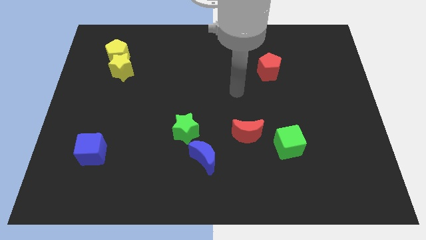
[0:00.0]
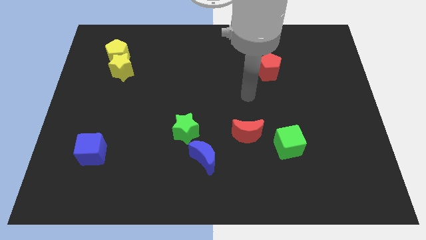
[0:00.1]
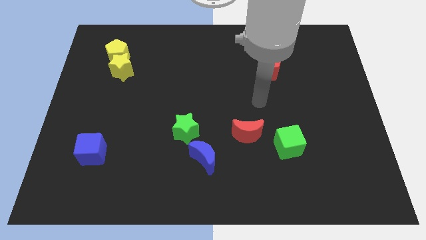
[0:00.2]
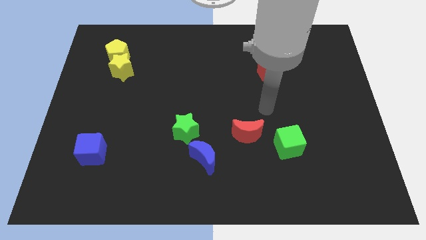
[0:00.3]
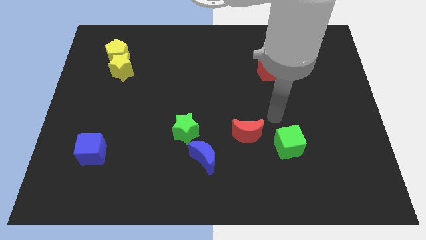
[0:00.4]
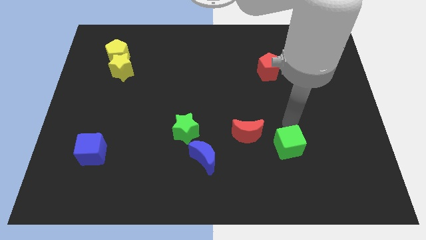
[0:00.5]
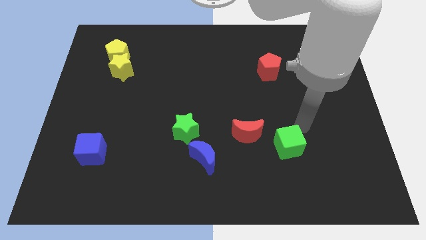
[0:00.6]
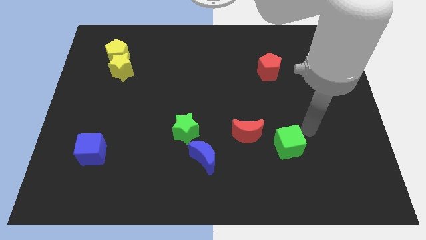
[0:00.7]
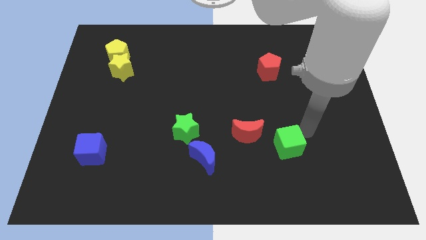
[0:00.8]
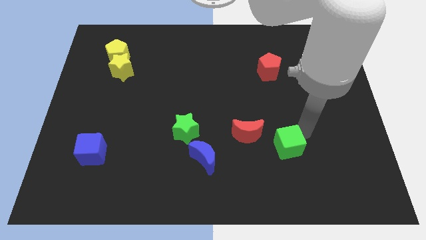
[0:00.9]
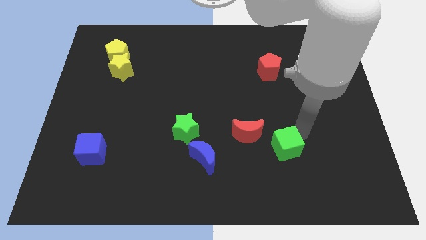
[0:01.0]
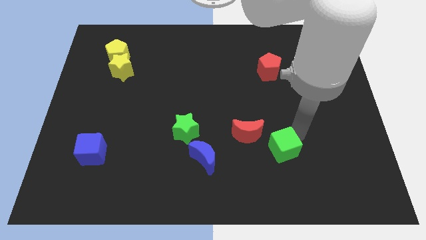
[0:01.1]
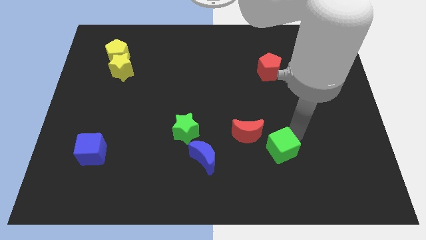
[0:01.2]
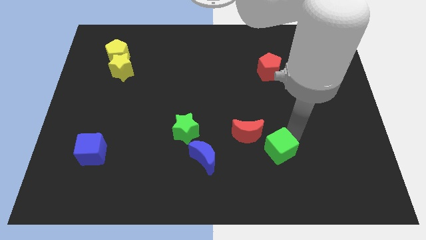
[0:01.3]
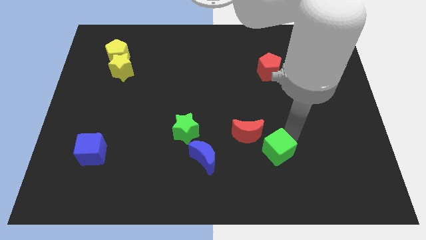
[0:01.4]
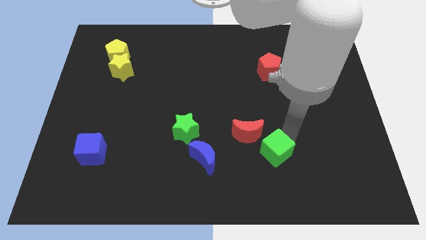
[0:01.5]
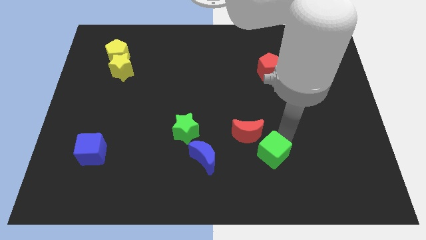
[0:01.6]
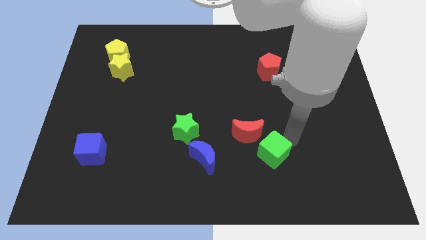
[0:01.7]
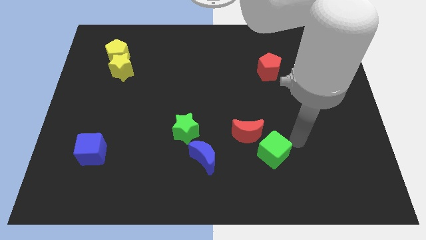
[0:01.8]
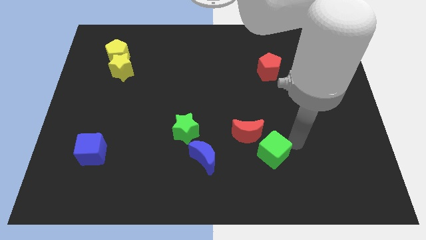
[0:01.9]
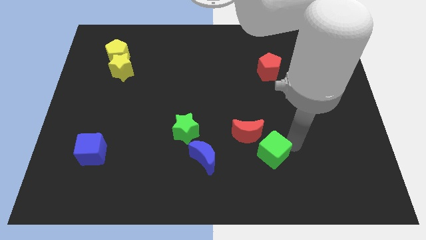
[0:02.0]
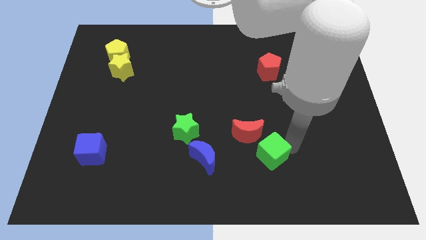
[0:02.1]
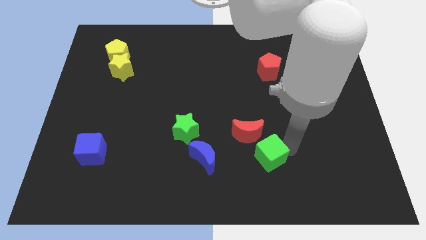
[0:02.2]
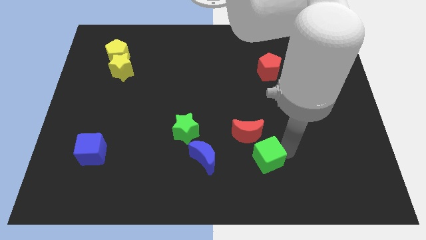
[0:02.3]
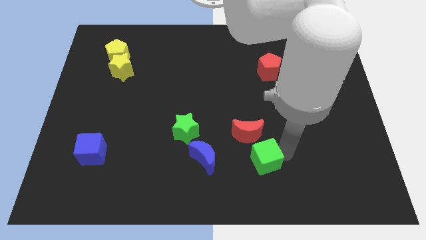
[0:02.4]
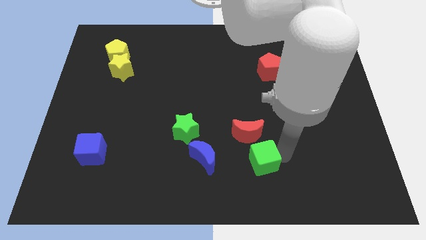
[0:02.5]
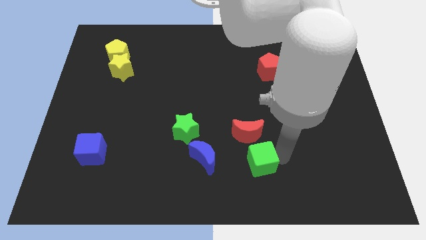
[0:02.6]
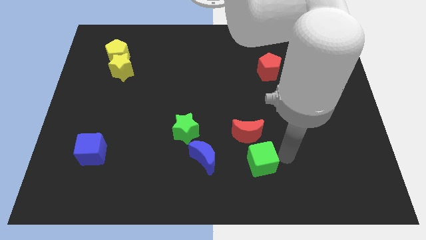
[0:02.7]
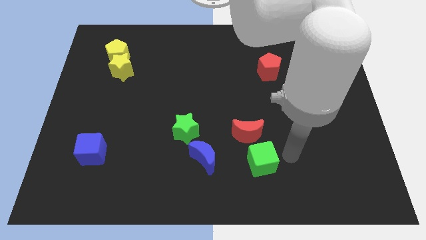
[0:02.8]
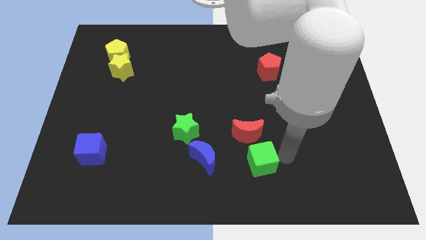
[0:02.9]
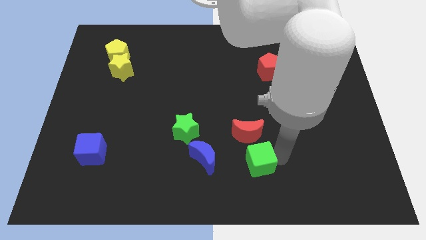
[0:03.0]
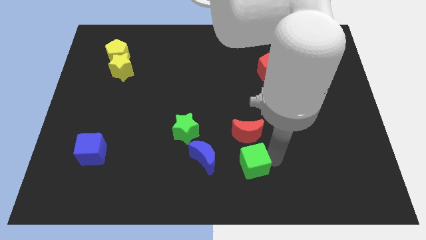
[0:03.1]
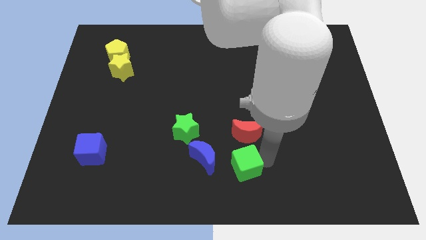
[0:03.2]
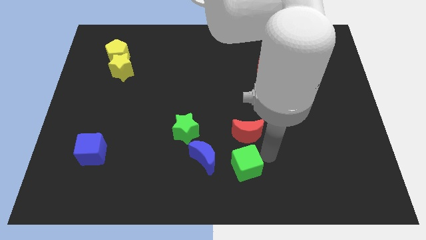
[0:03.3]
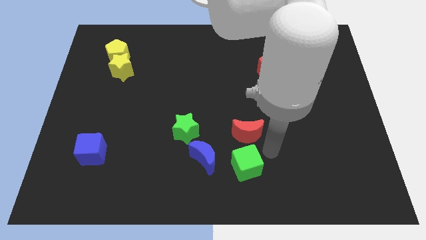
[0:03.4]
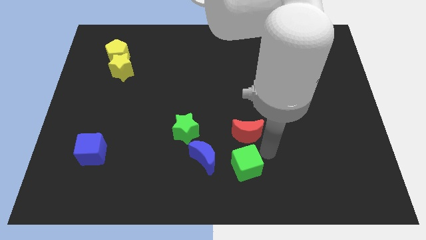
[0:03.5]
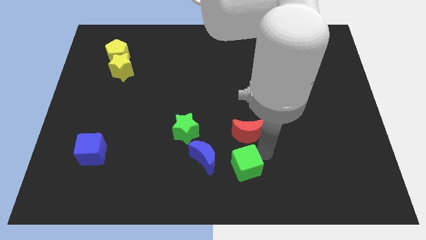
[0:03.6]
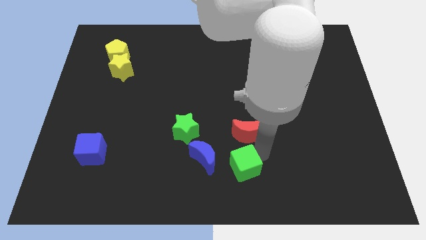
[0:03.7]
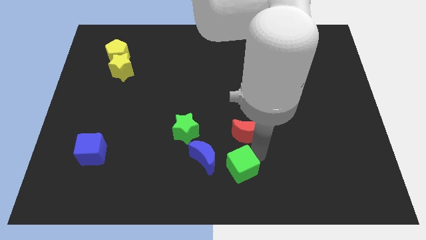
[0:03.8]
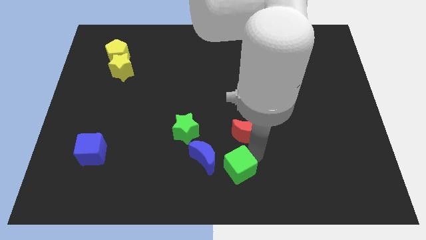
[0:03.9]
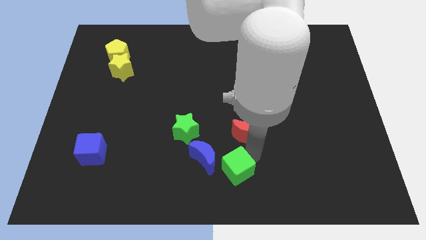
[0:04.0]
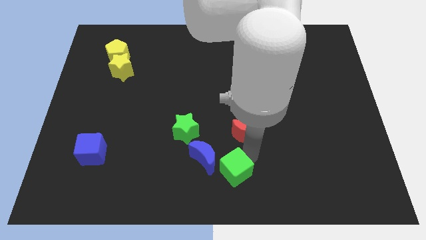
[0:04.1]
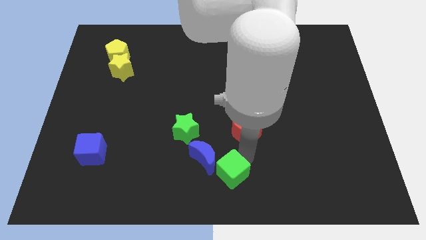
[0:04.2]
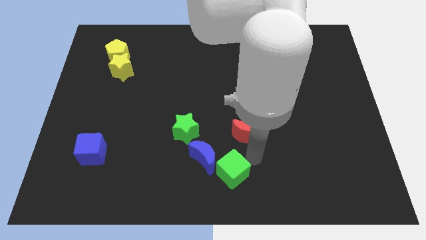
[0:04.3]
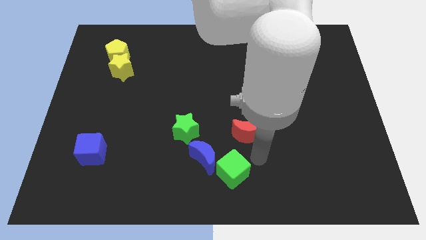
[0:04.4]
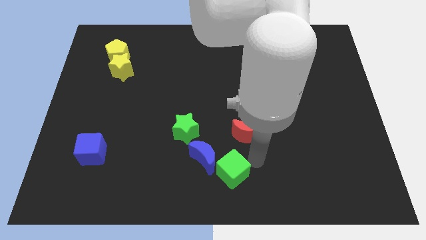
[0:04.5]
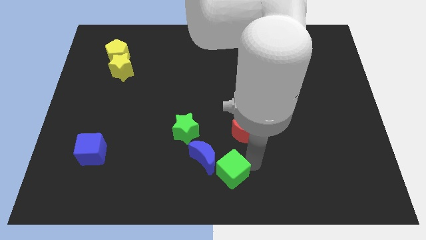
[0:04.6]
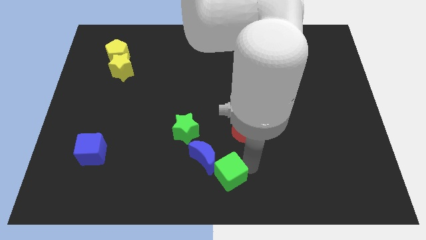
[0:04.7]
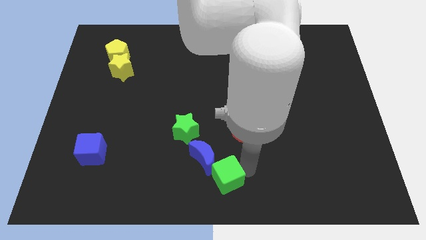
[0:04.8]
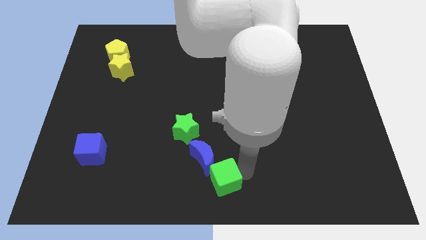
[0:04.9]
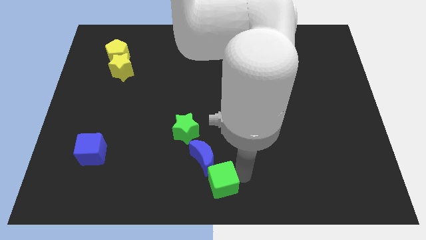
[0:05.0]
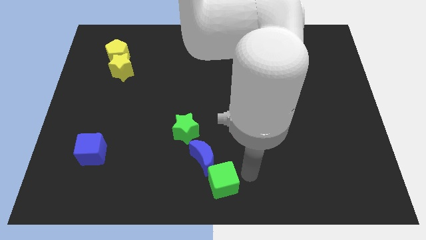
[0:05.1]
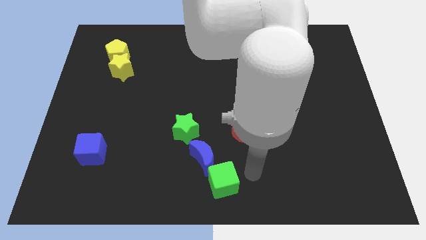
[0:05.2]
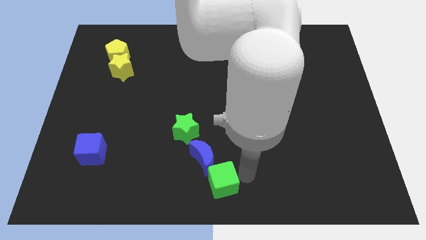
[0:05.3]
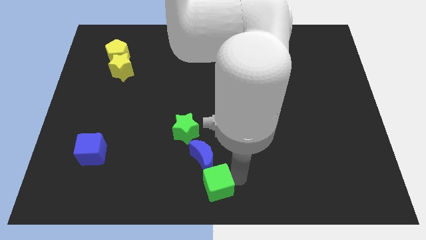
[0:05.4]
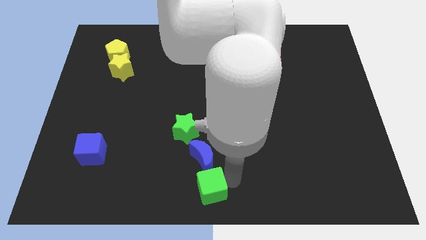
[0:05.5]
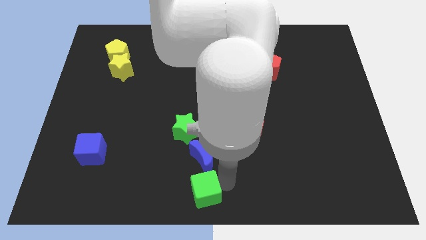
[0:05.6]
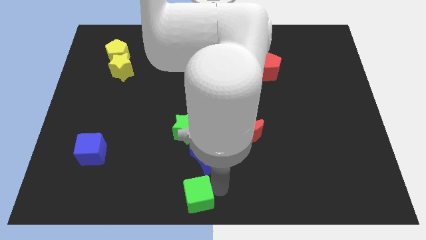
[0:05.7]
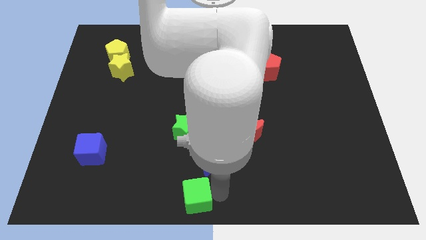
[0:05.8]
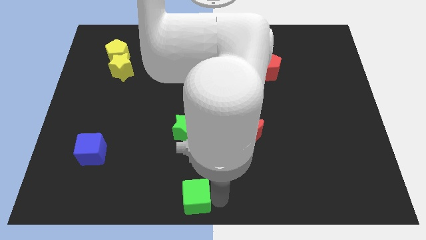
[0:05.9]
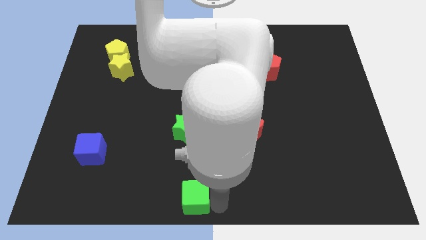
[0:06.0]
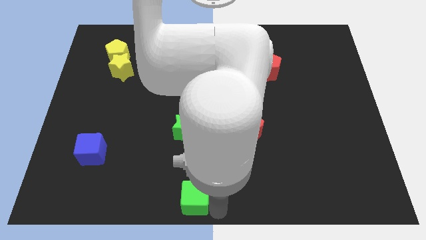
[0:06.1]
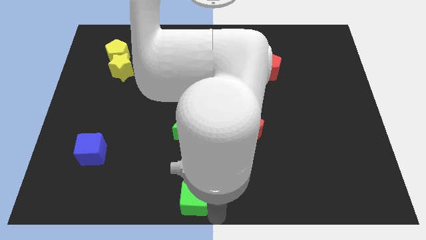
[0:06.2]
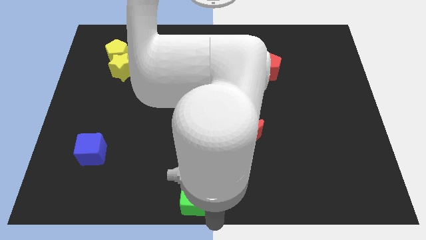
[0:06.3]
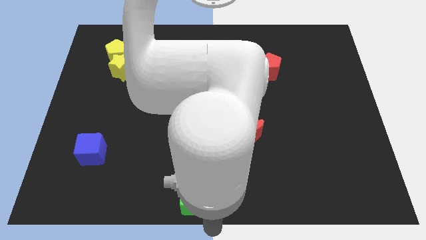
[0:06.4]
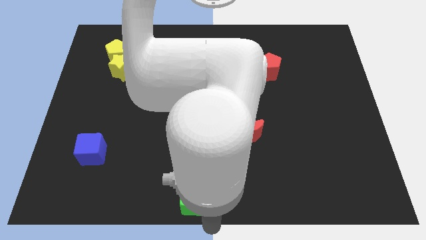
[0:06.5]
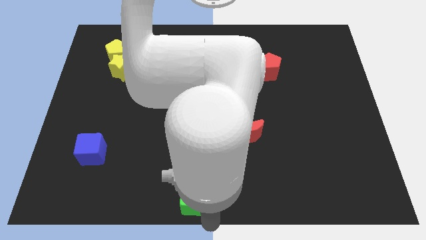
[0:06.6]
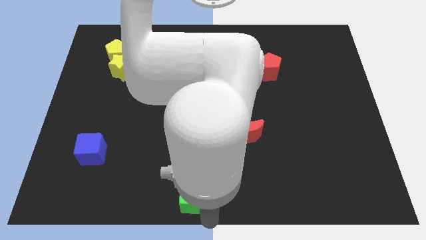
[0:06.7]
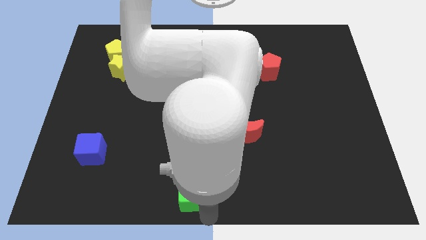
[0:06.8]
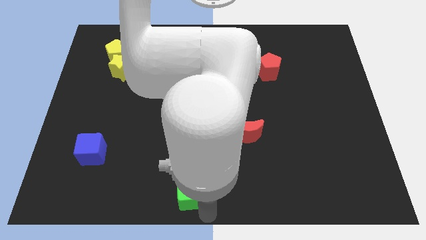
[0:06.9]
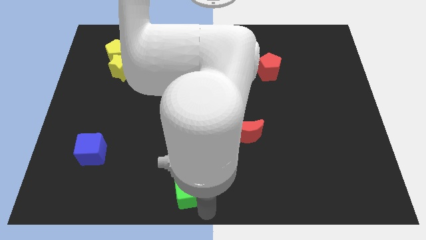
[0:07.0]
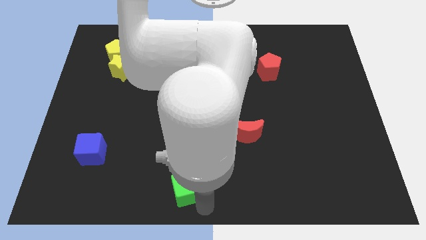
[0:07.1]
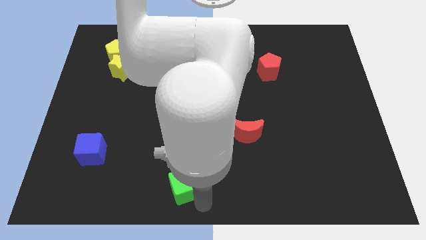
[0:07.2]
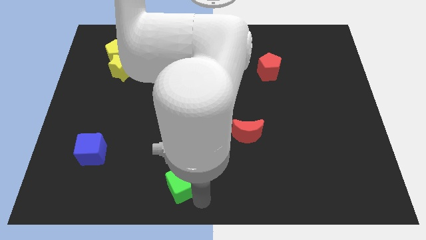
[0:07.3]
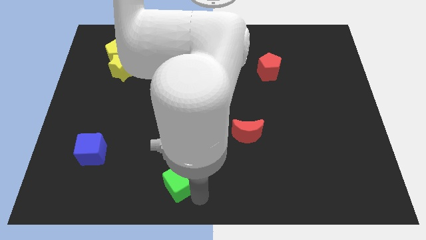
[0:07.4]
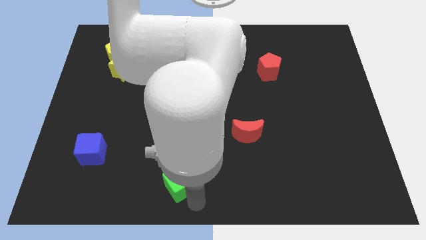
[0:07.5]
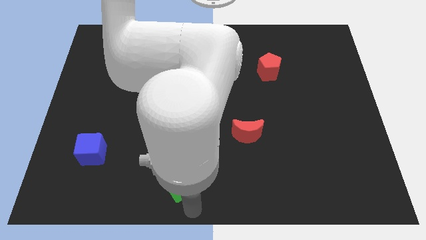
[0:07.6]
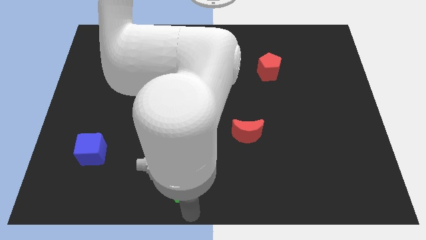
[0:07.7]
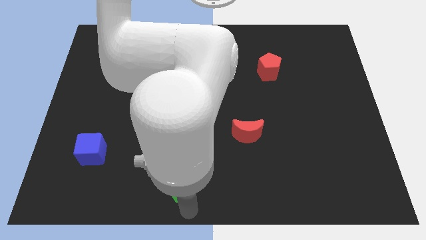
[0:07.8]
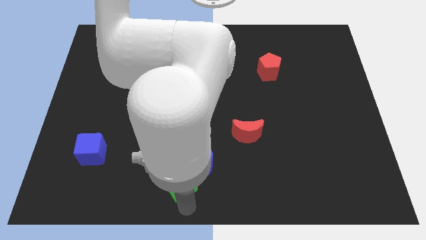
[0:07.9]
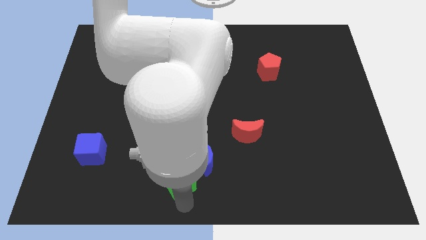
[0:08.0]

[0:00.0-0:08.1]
move the green cube left
